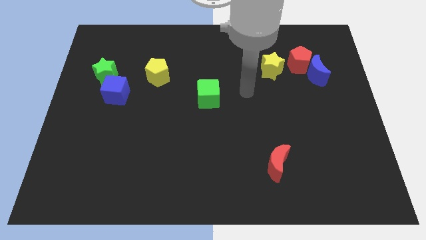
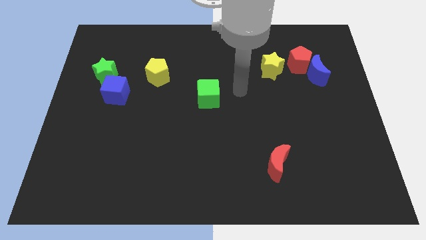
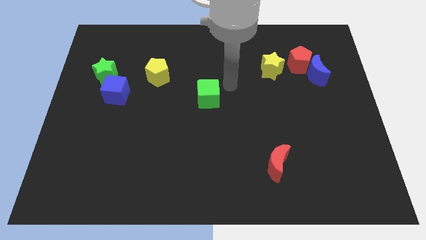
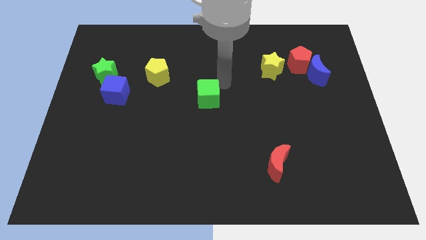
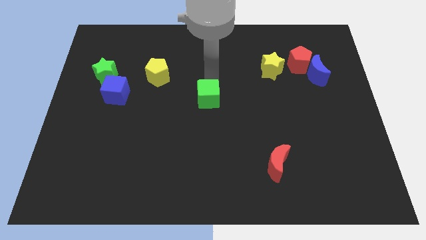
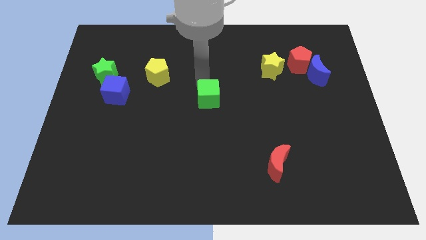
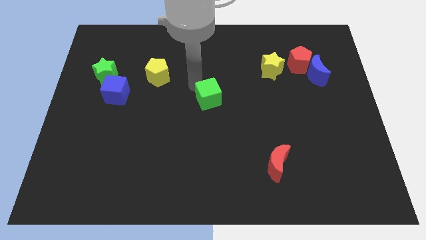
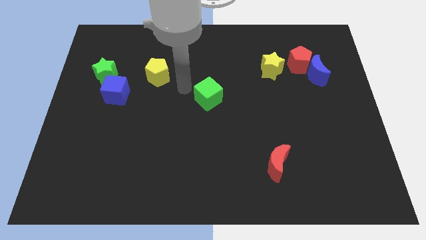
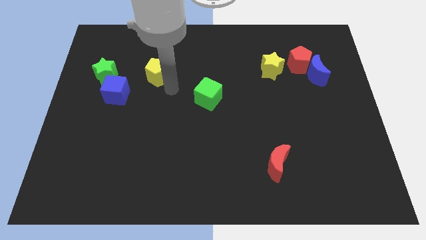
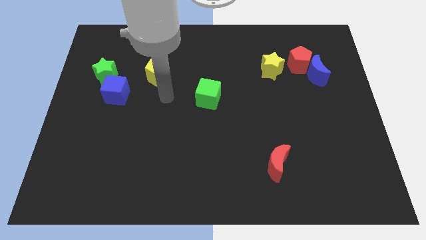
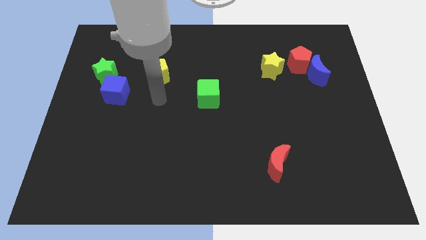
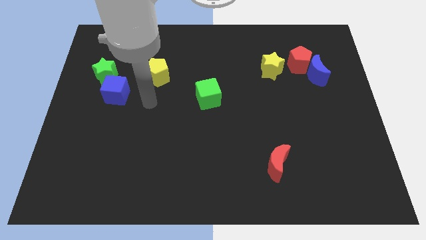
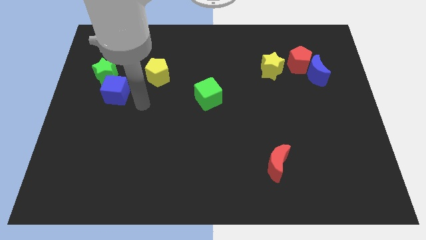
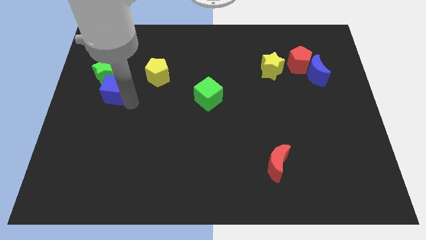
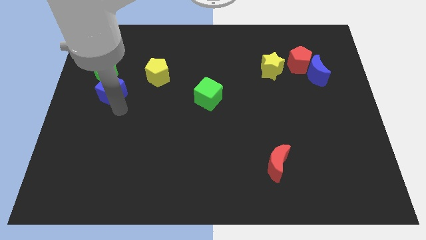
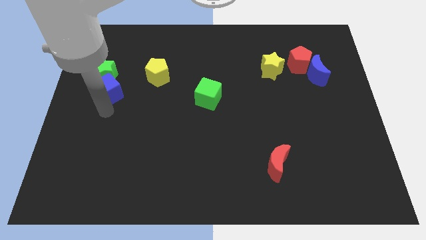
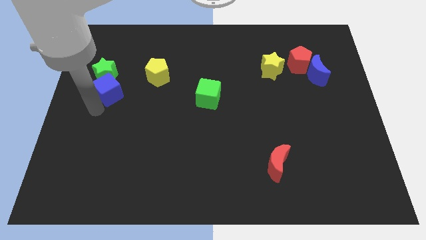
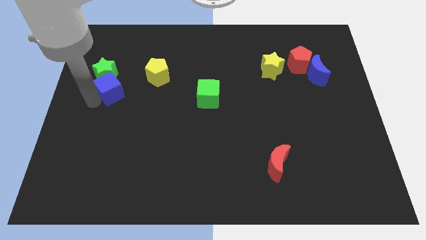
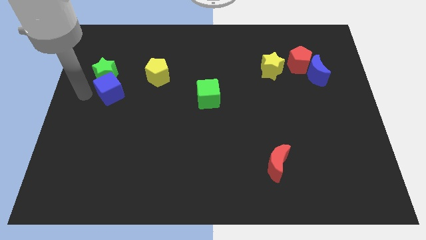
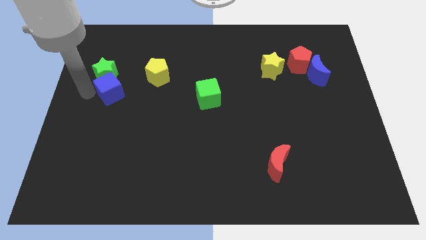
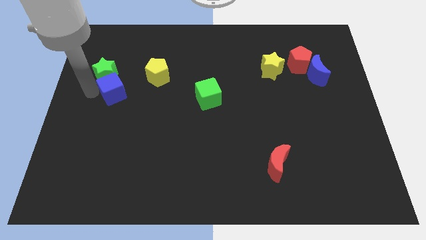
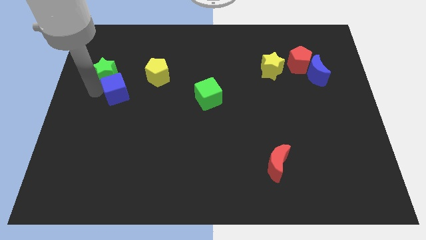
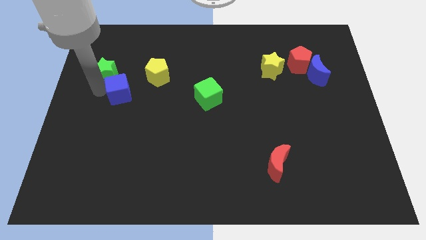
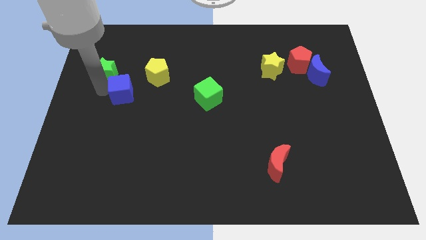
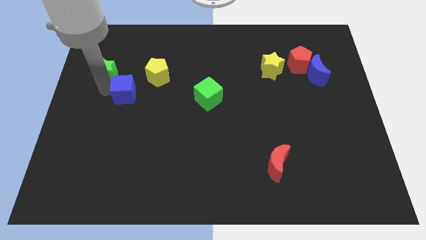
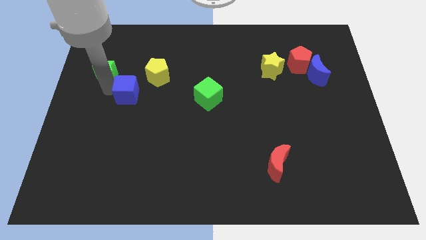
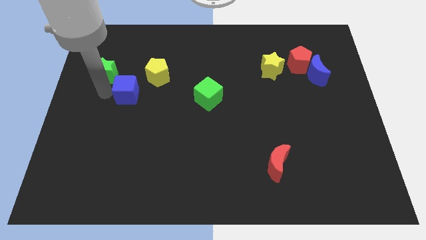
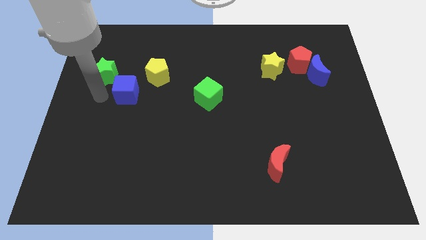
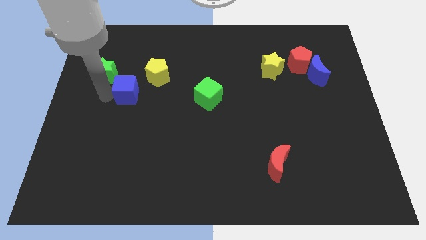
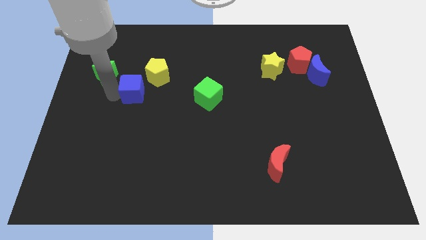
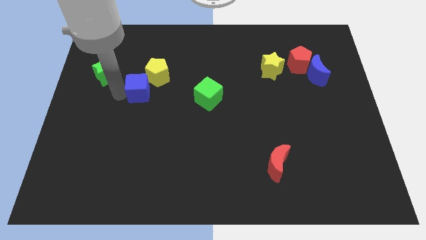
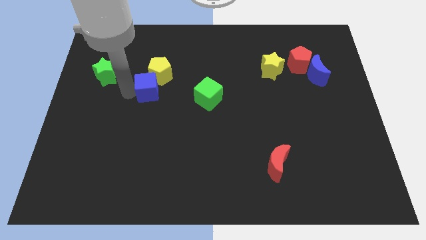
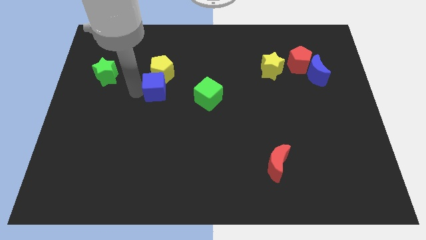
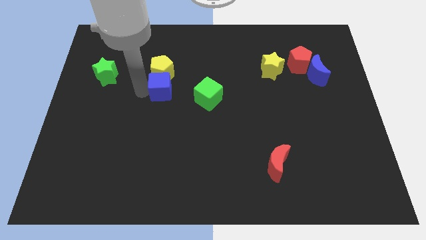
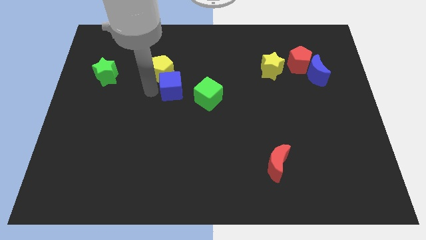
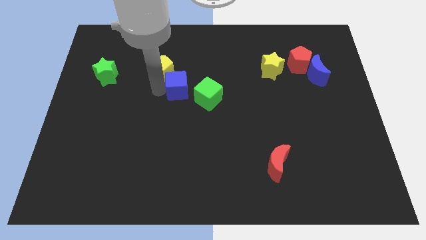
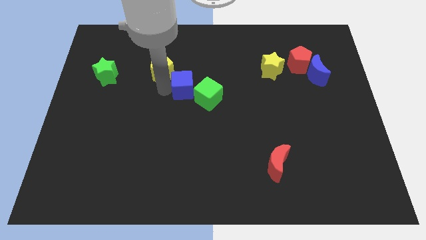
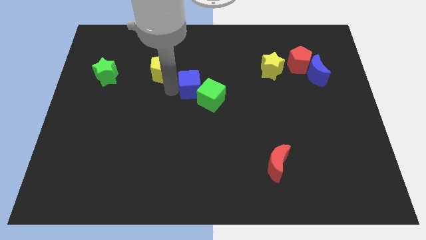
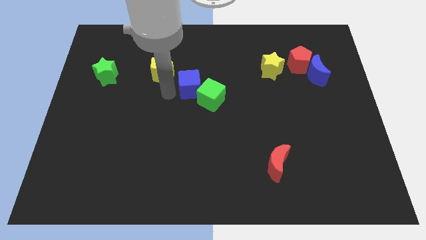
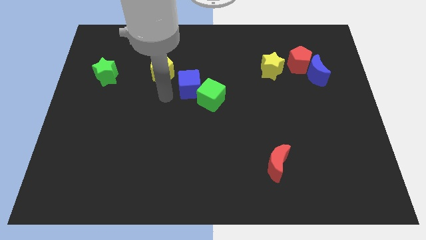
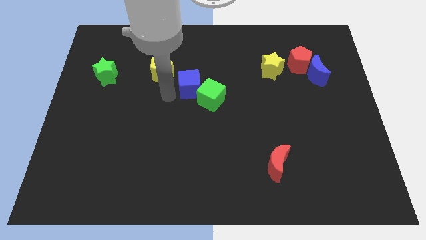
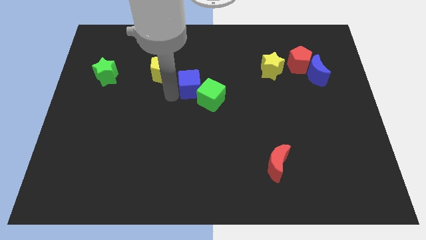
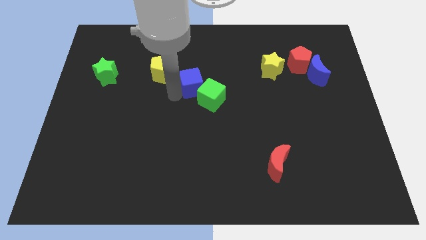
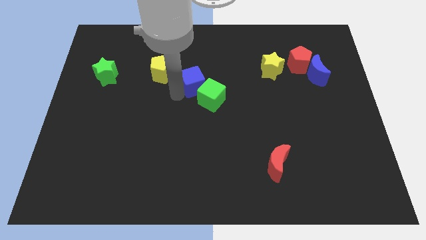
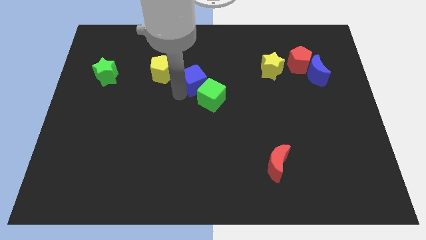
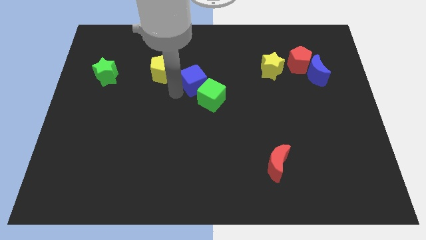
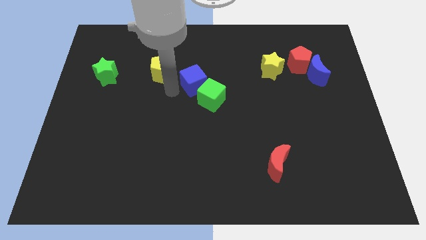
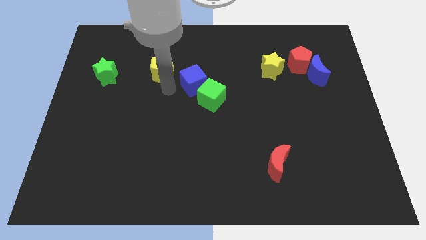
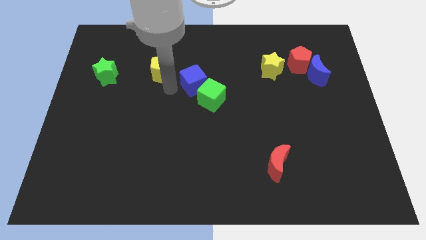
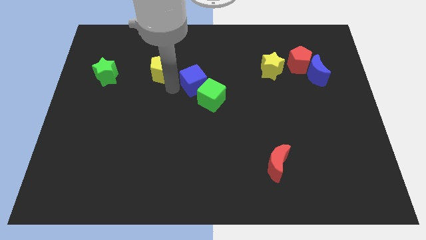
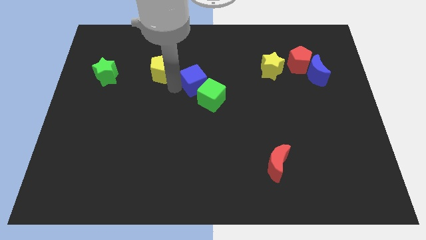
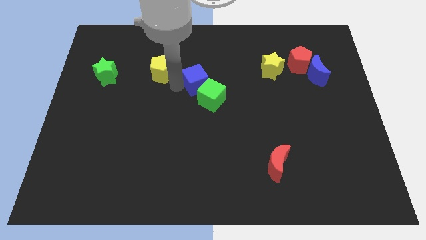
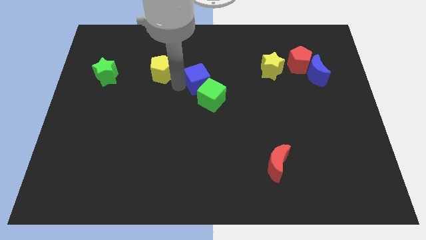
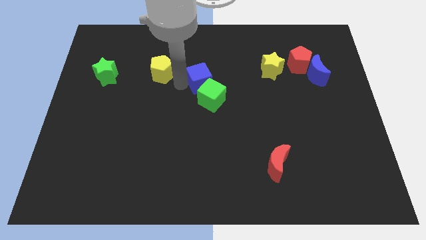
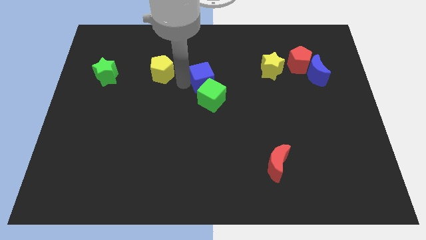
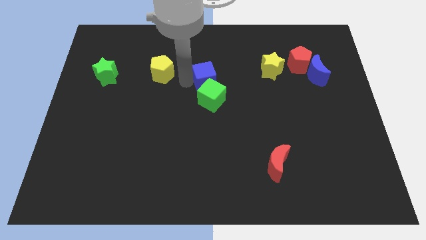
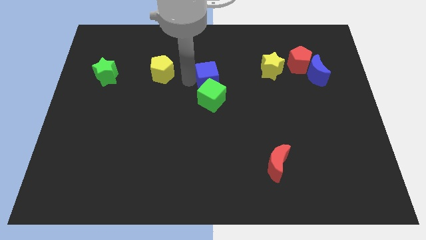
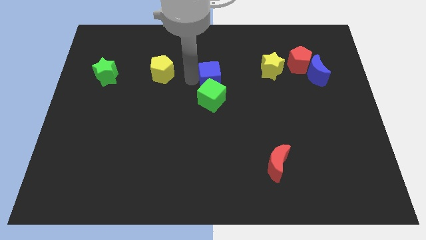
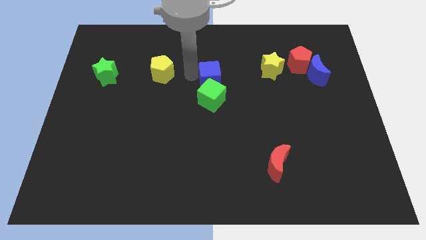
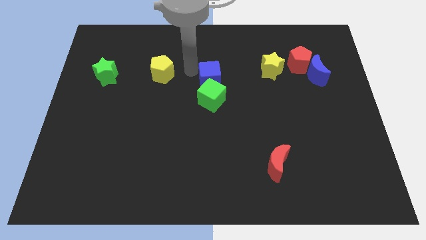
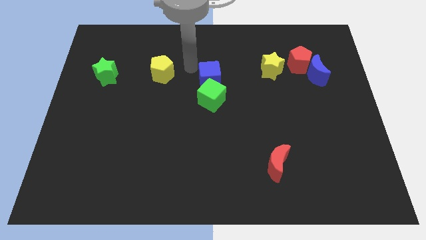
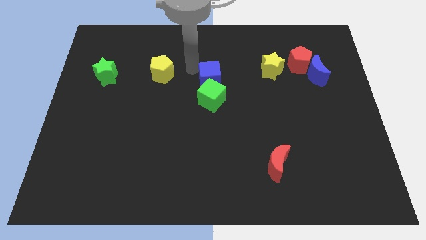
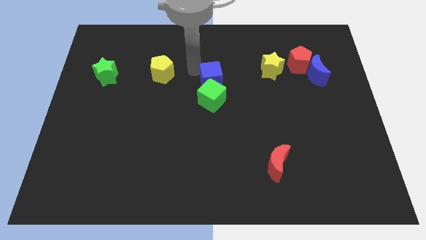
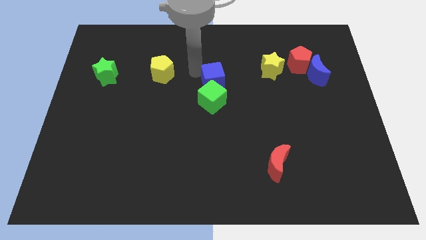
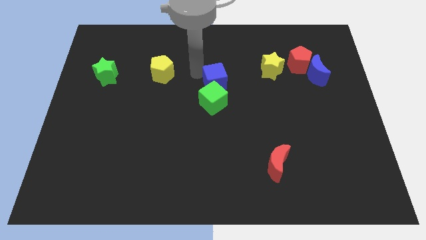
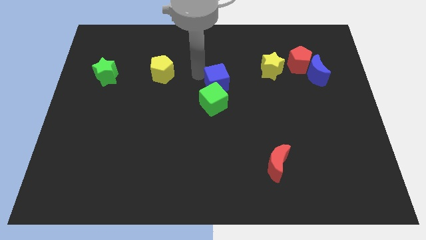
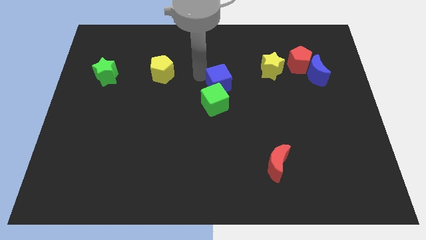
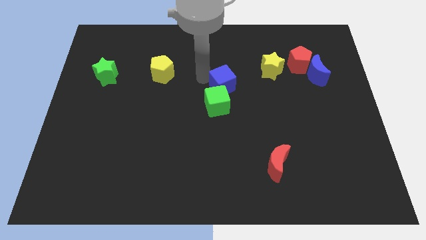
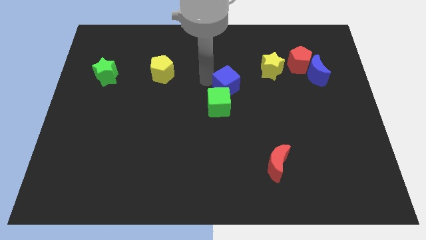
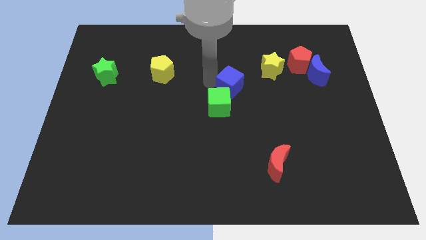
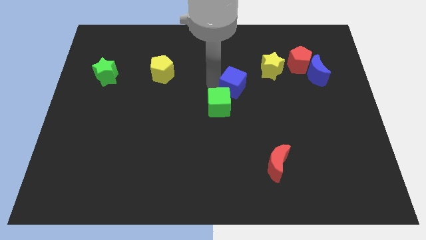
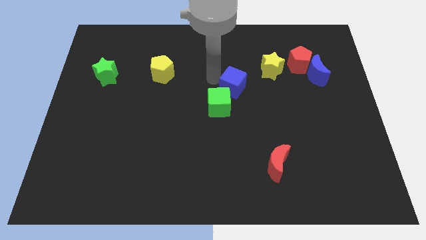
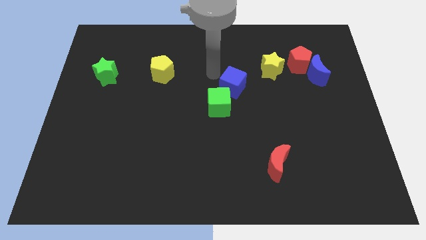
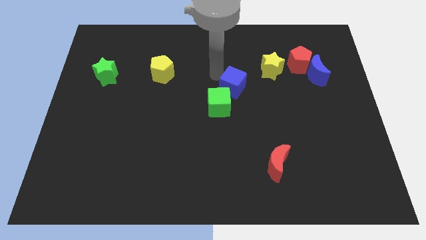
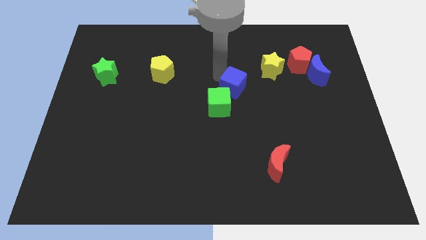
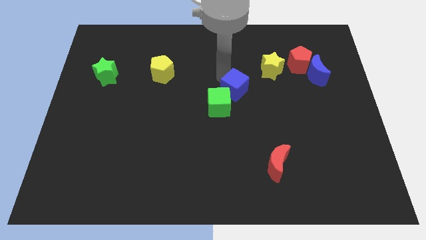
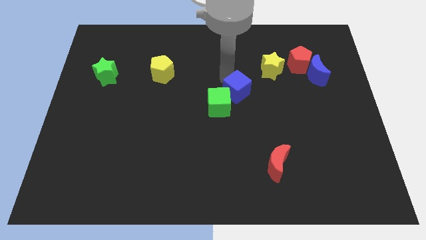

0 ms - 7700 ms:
slide the blue cube to the right of the green cube
